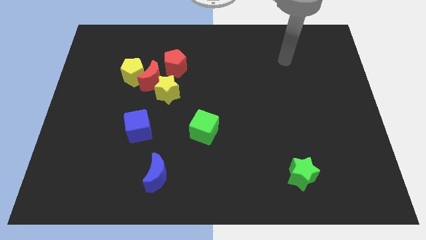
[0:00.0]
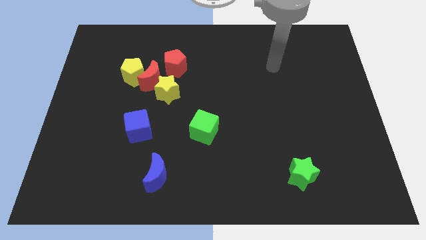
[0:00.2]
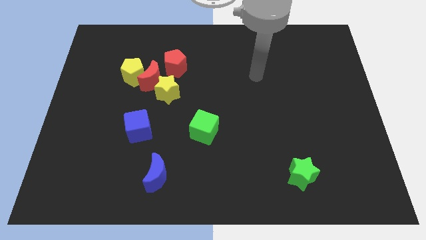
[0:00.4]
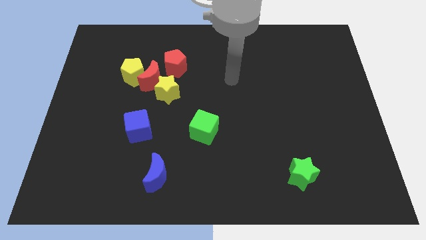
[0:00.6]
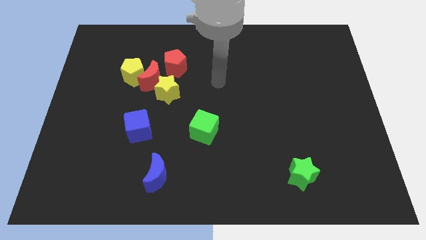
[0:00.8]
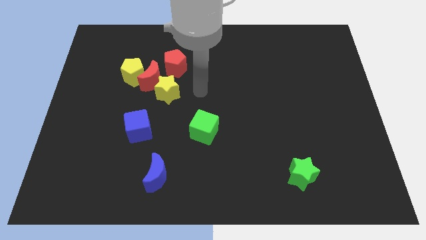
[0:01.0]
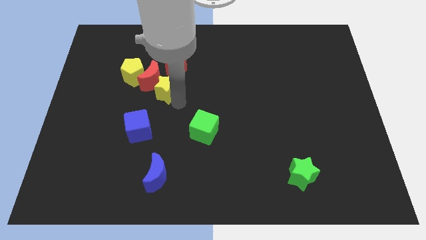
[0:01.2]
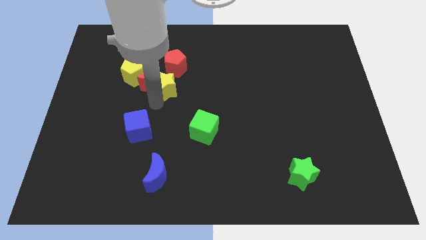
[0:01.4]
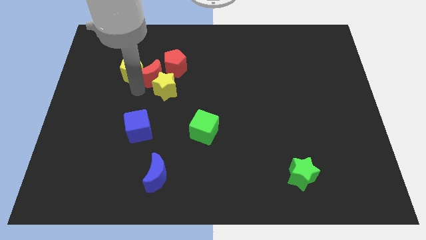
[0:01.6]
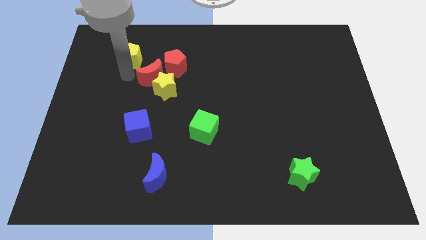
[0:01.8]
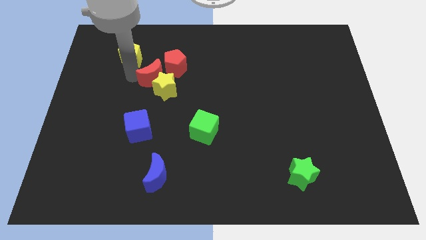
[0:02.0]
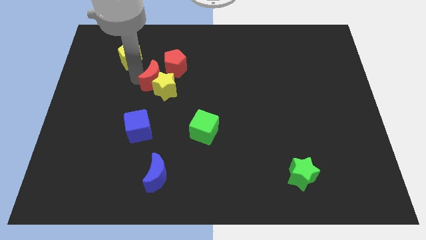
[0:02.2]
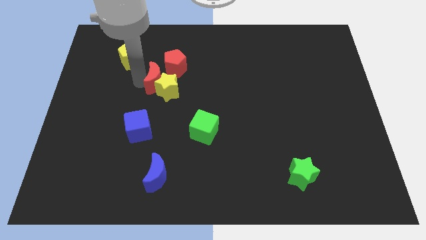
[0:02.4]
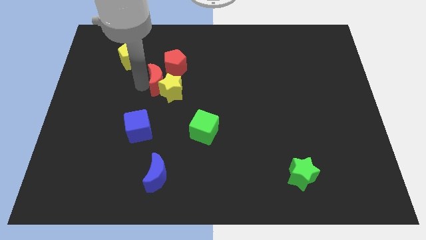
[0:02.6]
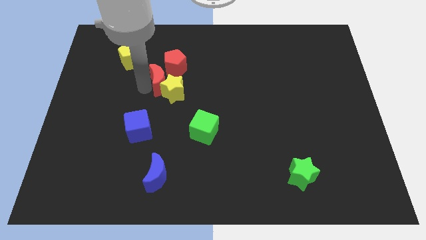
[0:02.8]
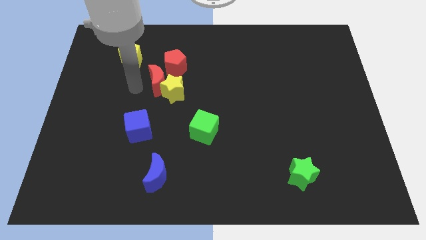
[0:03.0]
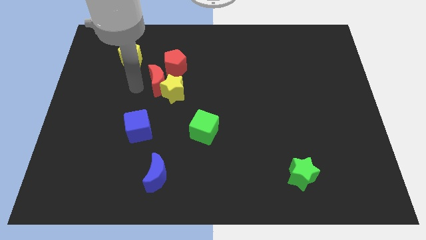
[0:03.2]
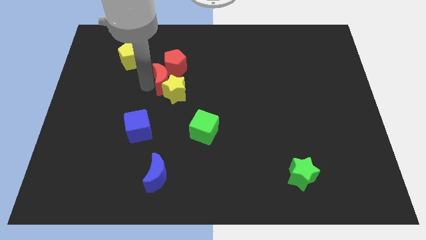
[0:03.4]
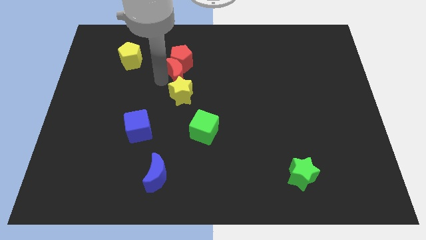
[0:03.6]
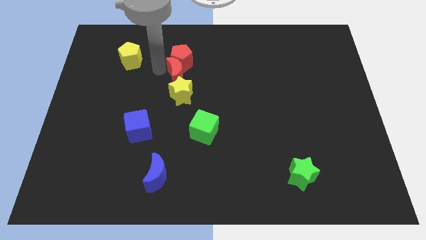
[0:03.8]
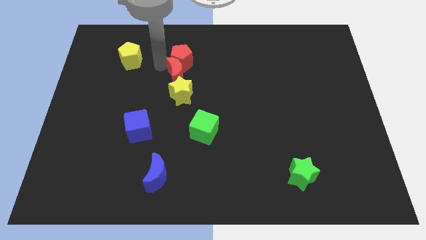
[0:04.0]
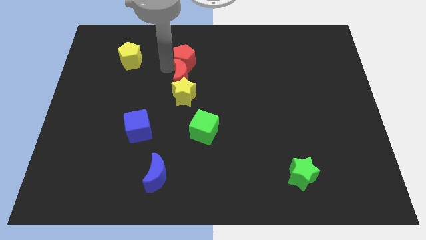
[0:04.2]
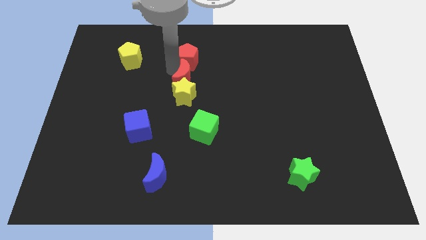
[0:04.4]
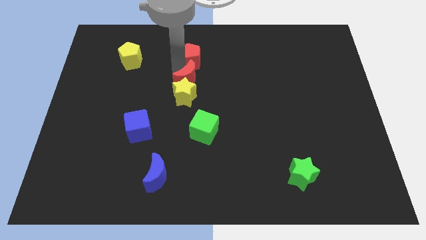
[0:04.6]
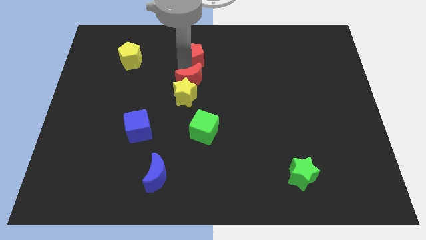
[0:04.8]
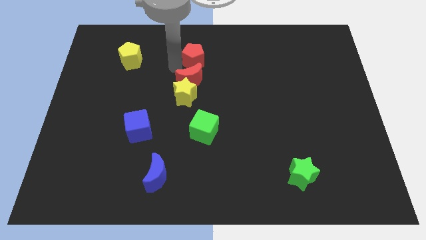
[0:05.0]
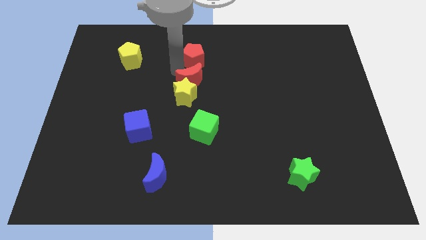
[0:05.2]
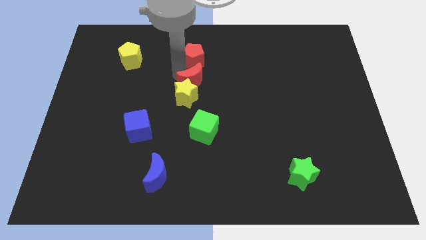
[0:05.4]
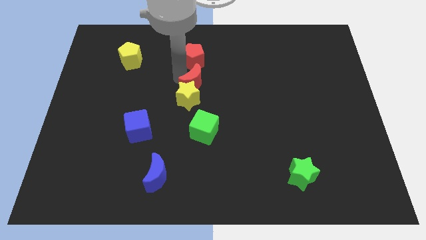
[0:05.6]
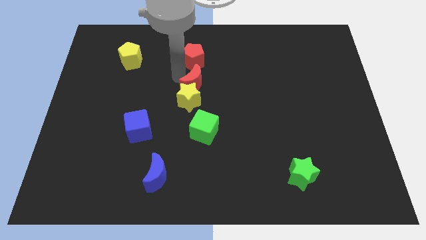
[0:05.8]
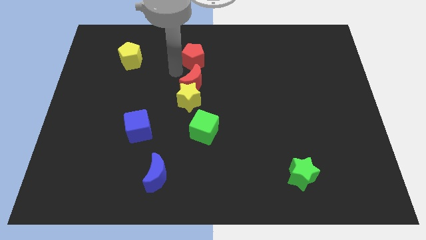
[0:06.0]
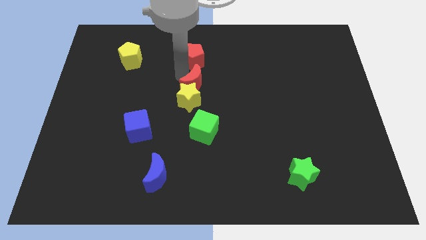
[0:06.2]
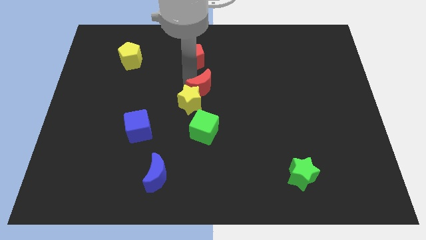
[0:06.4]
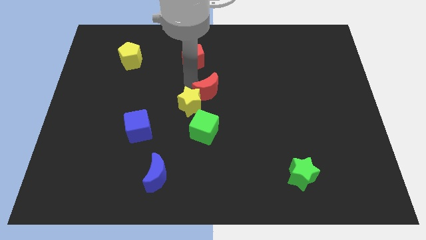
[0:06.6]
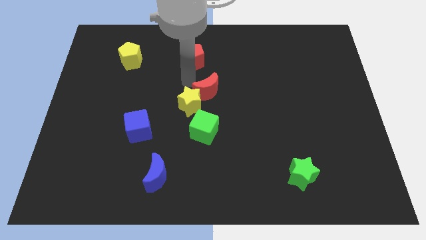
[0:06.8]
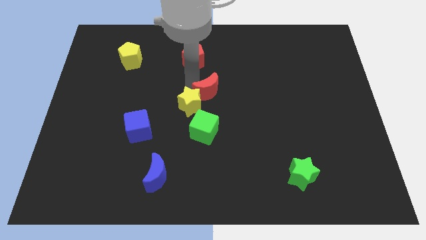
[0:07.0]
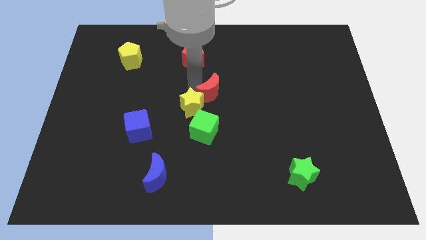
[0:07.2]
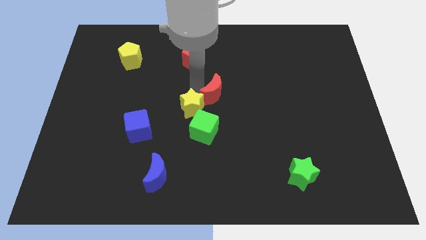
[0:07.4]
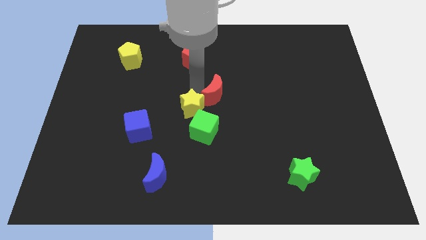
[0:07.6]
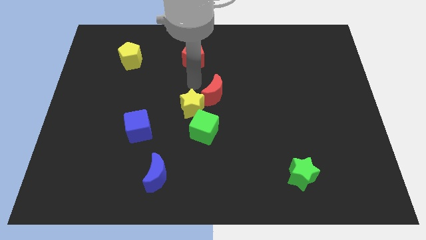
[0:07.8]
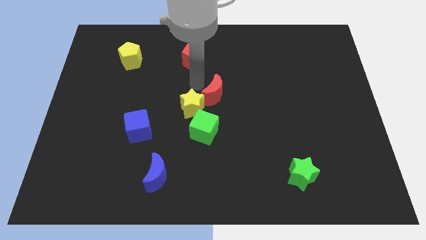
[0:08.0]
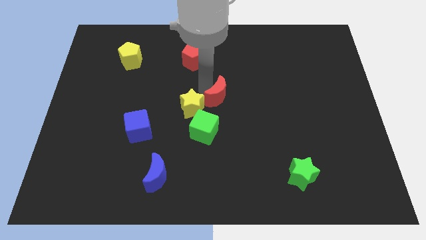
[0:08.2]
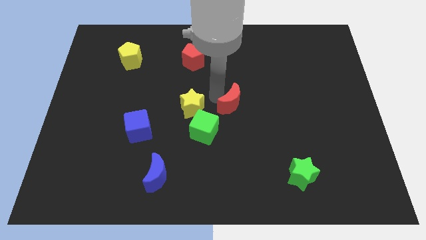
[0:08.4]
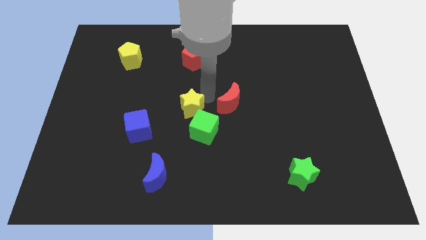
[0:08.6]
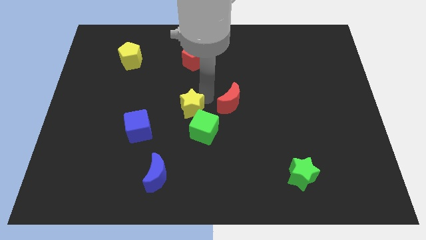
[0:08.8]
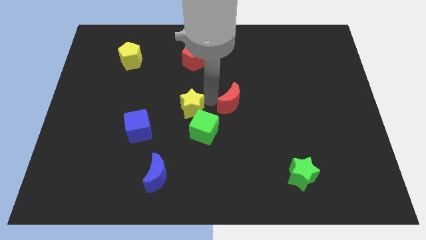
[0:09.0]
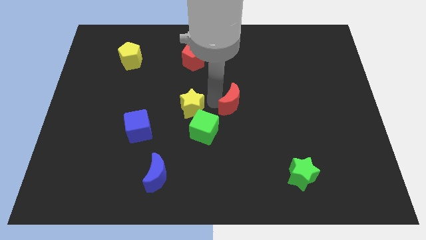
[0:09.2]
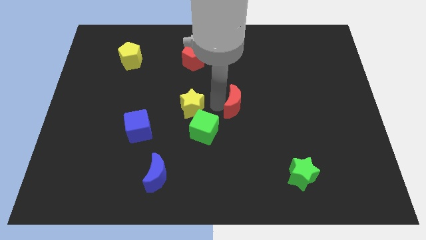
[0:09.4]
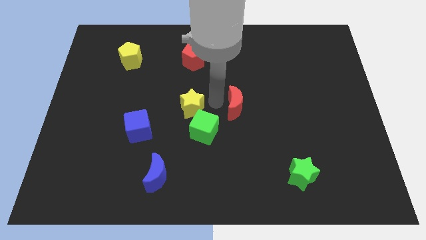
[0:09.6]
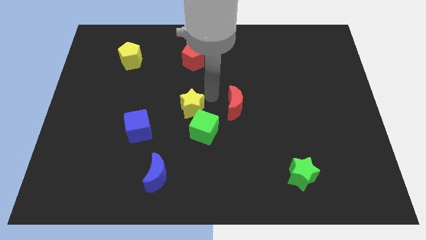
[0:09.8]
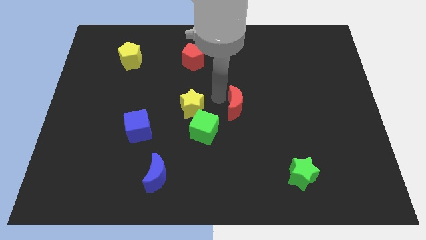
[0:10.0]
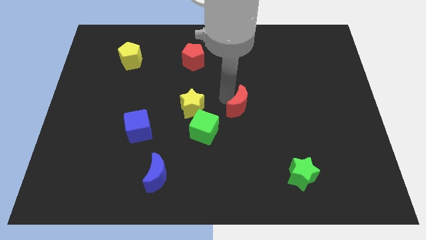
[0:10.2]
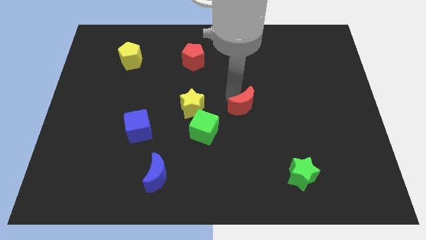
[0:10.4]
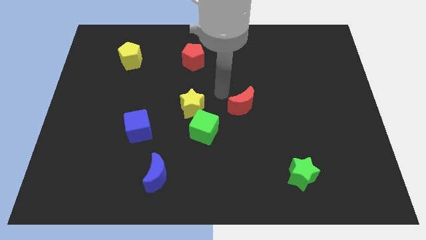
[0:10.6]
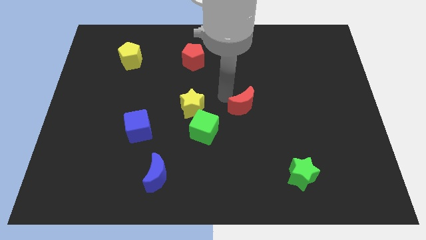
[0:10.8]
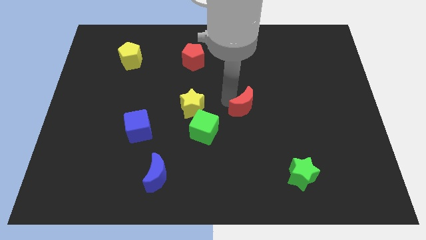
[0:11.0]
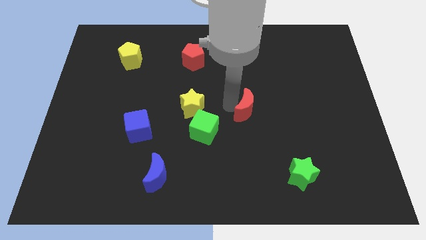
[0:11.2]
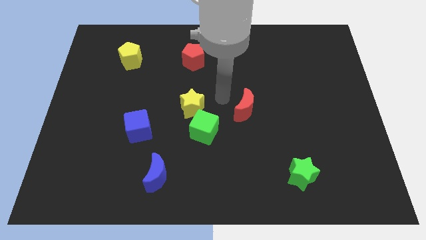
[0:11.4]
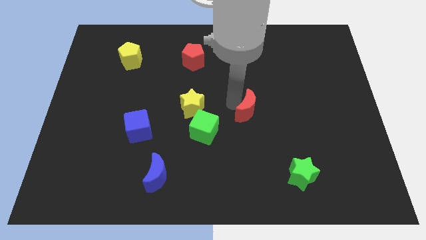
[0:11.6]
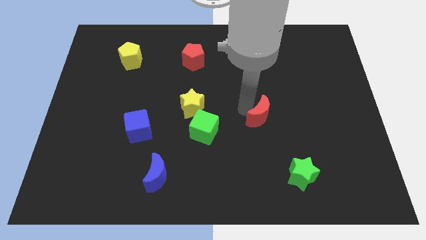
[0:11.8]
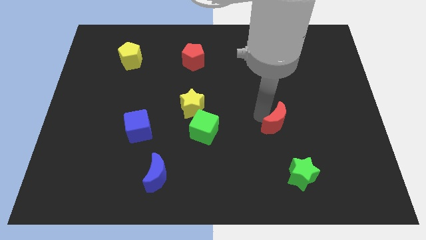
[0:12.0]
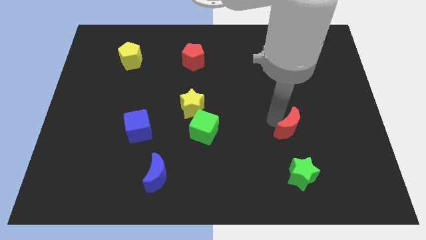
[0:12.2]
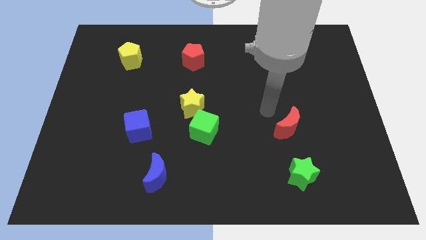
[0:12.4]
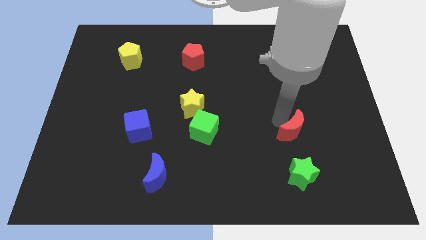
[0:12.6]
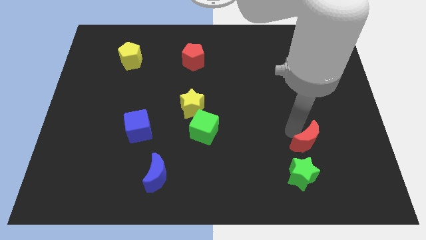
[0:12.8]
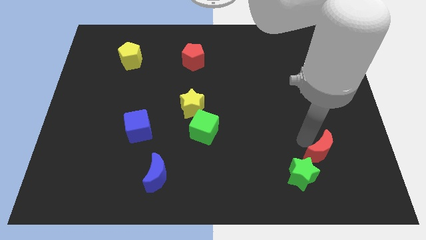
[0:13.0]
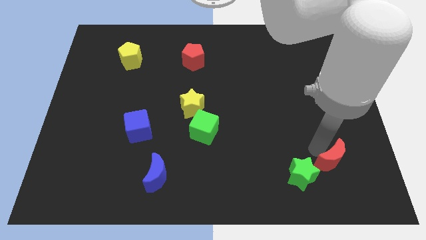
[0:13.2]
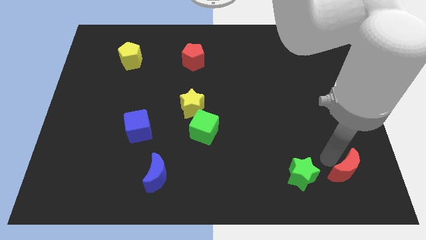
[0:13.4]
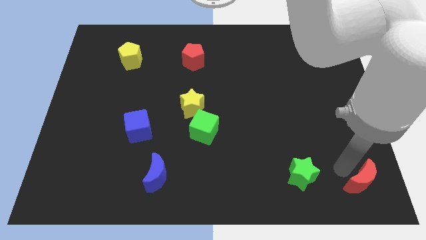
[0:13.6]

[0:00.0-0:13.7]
slide the red moon to the bottom right corner
